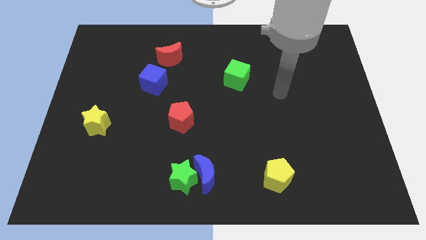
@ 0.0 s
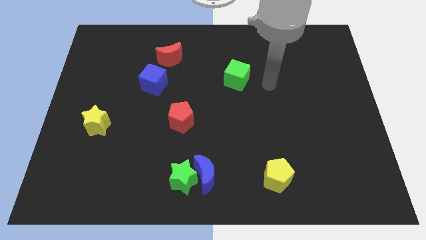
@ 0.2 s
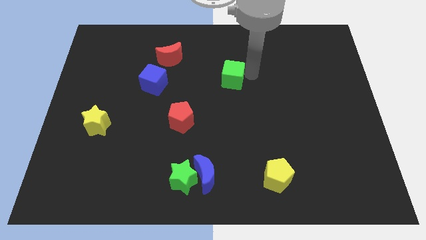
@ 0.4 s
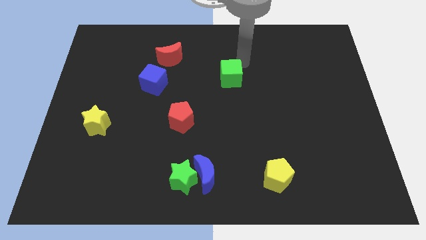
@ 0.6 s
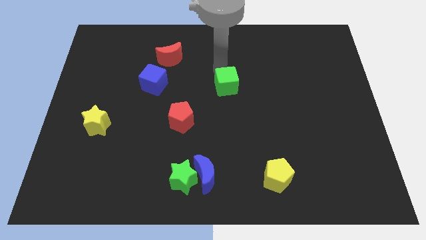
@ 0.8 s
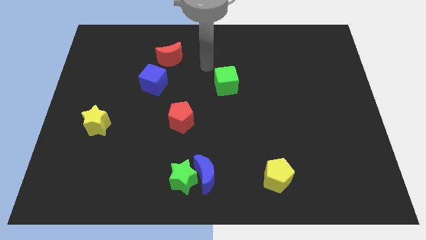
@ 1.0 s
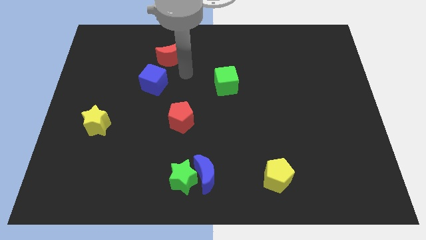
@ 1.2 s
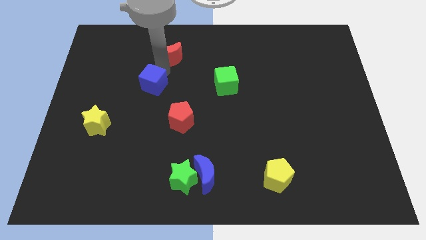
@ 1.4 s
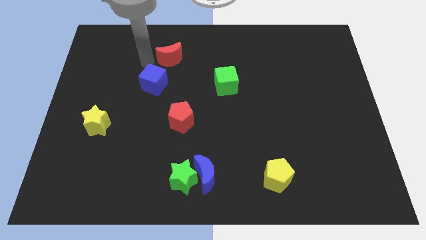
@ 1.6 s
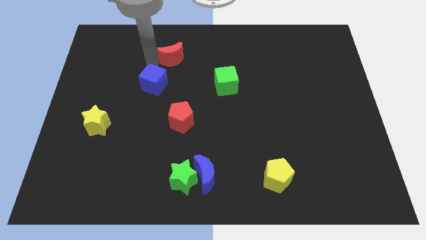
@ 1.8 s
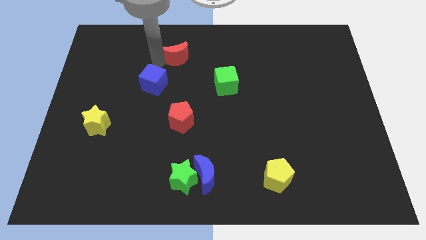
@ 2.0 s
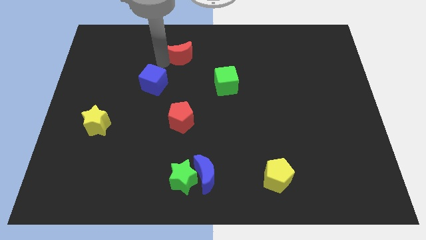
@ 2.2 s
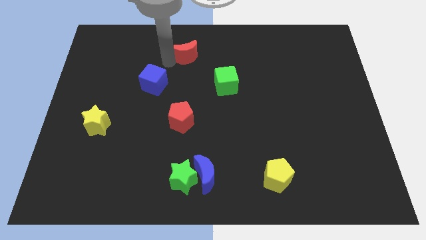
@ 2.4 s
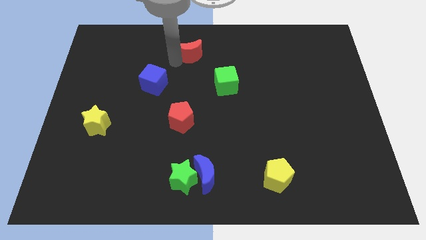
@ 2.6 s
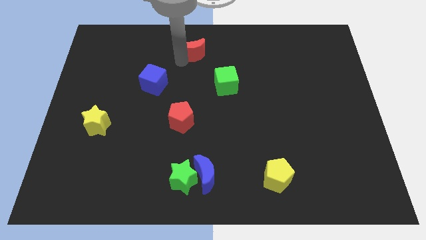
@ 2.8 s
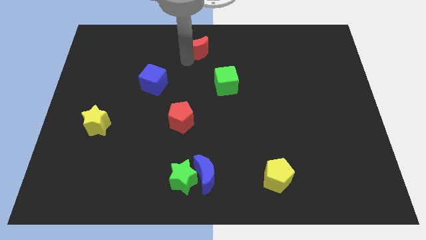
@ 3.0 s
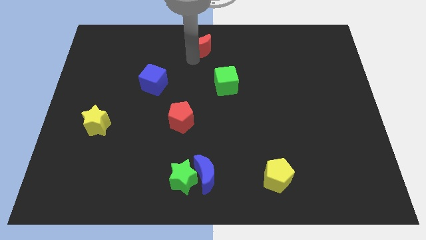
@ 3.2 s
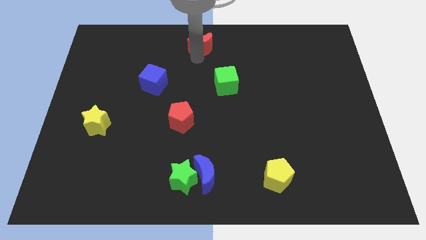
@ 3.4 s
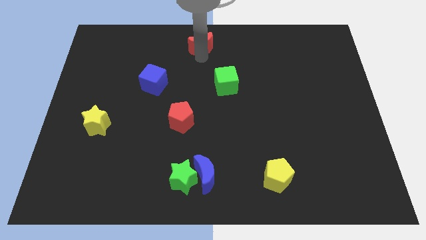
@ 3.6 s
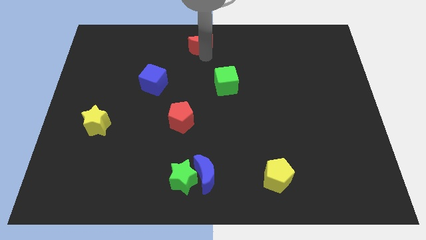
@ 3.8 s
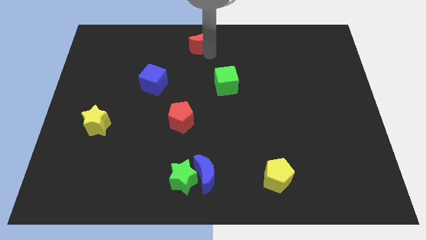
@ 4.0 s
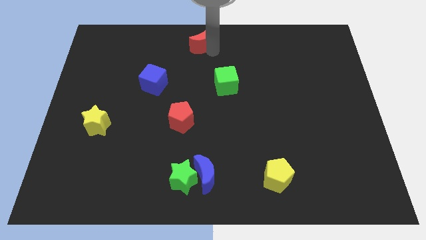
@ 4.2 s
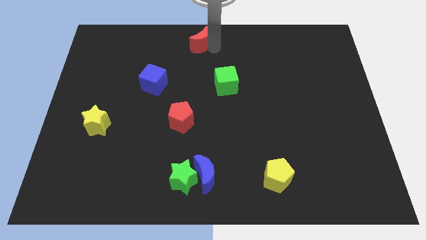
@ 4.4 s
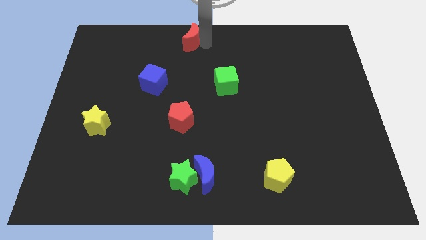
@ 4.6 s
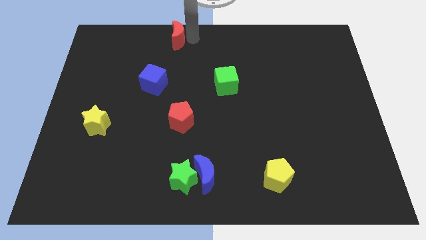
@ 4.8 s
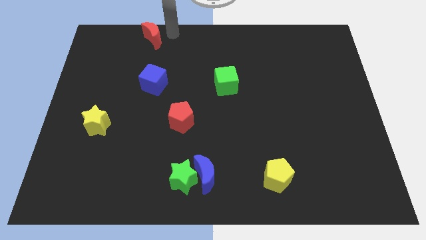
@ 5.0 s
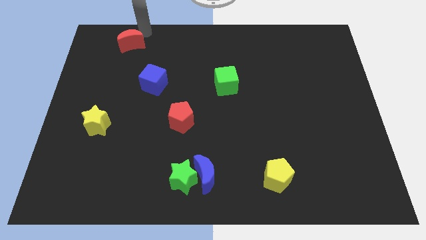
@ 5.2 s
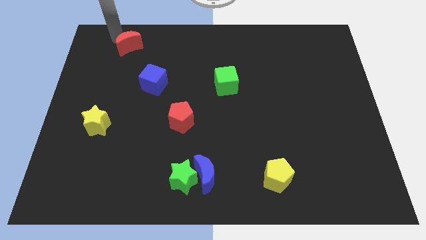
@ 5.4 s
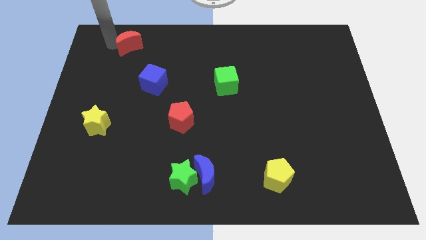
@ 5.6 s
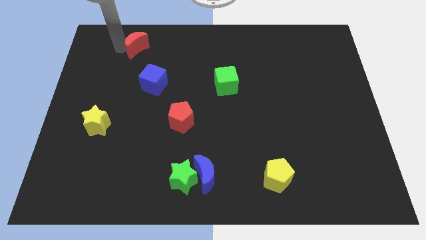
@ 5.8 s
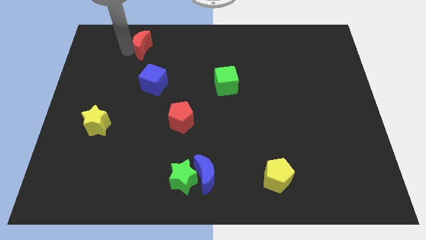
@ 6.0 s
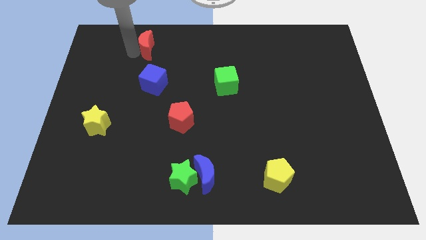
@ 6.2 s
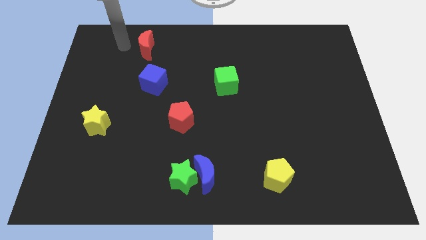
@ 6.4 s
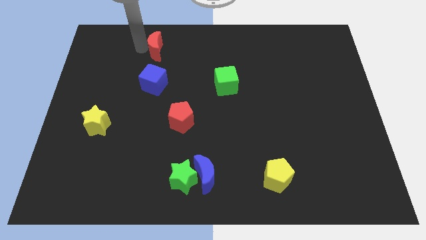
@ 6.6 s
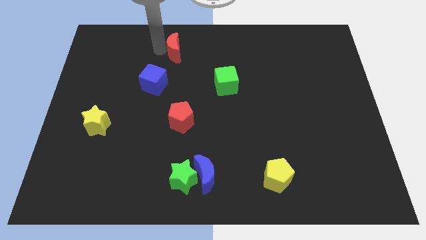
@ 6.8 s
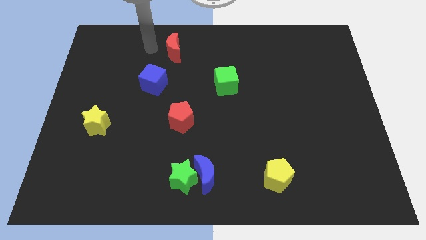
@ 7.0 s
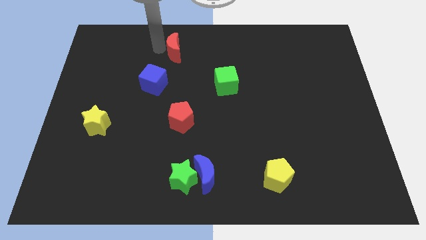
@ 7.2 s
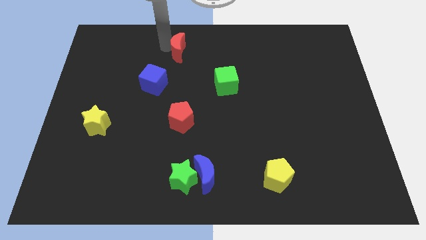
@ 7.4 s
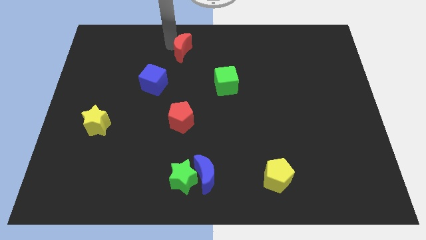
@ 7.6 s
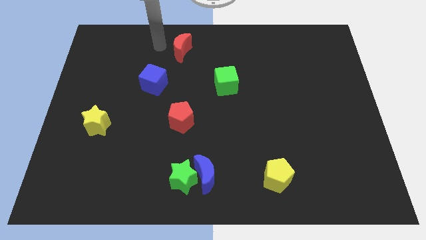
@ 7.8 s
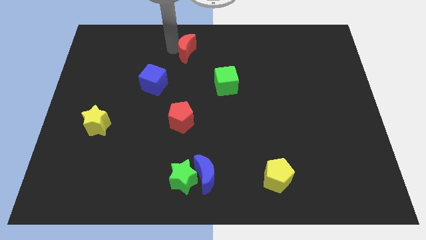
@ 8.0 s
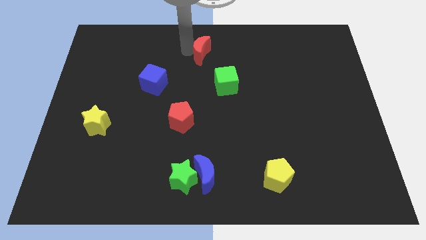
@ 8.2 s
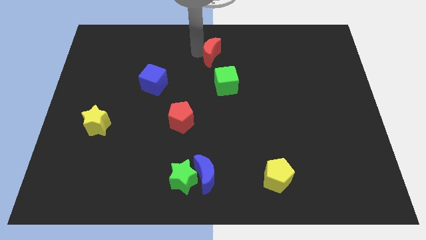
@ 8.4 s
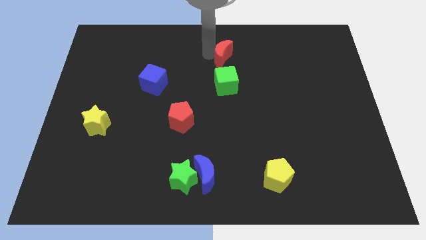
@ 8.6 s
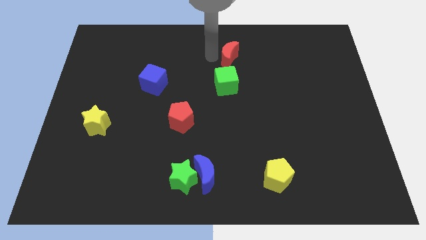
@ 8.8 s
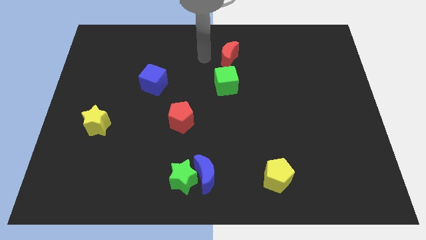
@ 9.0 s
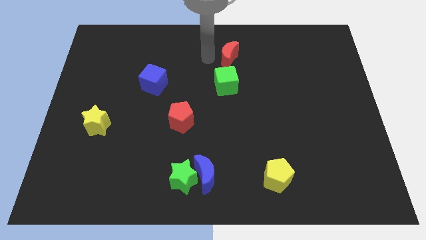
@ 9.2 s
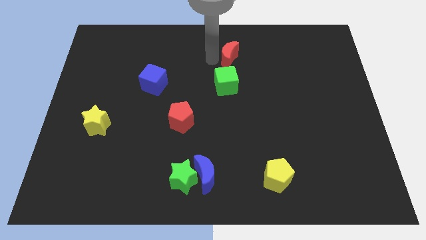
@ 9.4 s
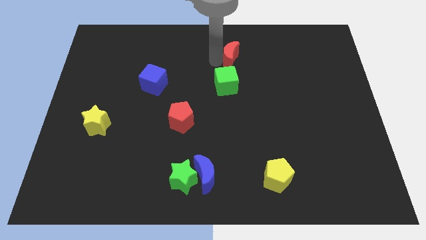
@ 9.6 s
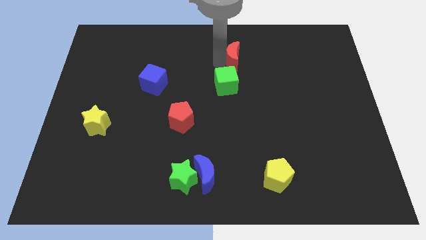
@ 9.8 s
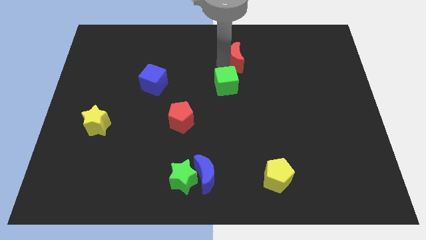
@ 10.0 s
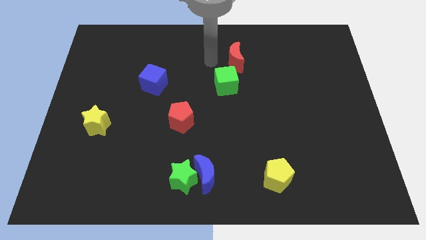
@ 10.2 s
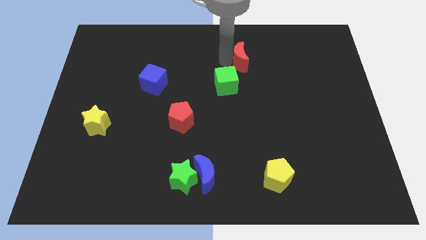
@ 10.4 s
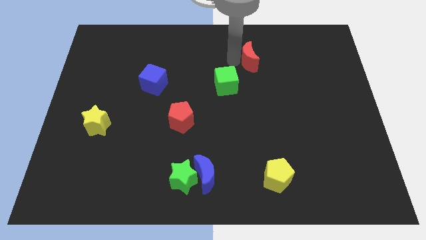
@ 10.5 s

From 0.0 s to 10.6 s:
slide the red moon right

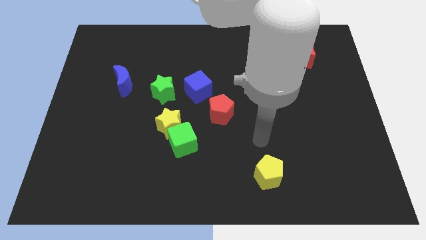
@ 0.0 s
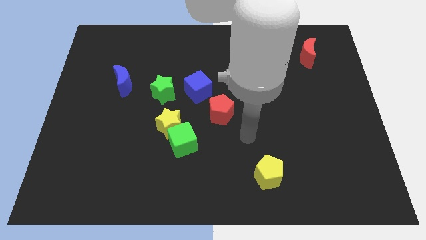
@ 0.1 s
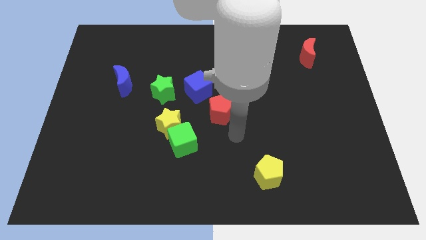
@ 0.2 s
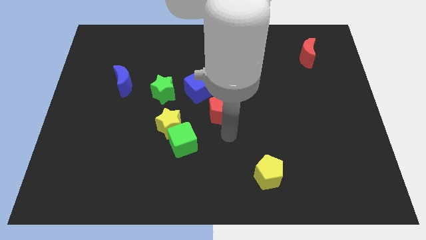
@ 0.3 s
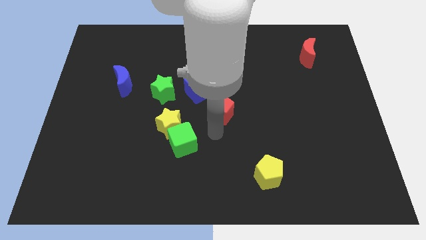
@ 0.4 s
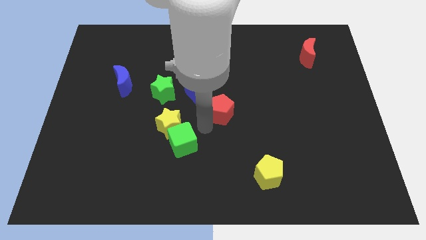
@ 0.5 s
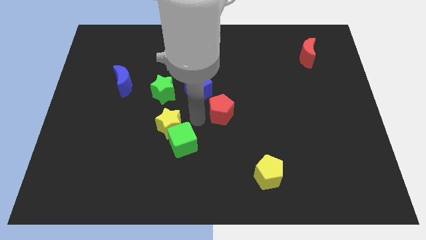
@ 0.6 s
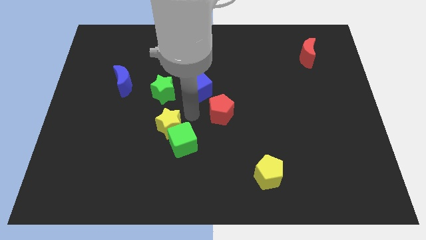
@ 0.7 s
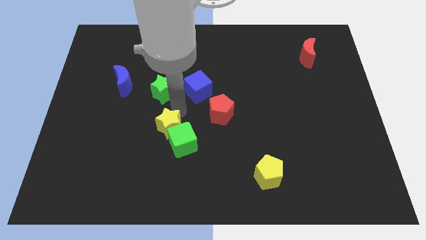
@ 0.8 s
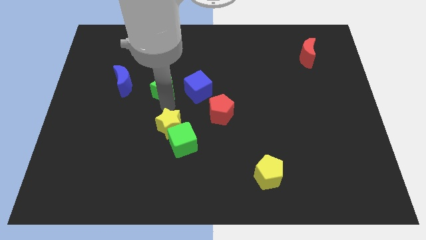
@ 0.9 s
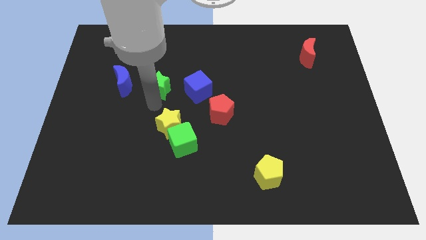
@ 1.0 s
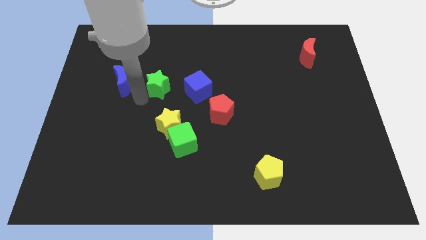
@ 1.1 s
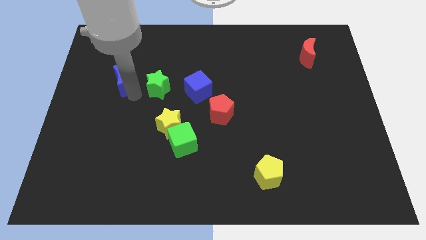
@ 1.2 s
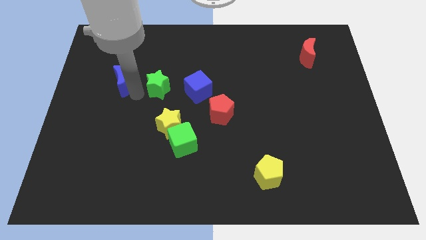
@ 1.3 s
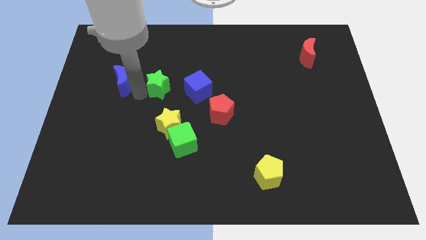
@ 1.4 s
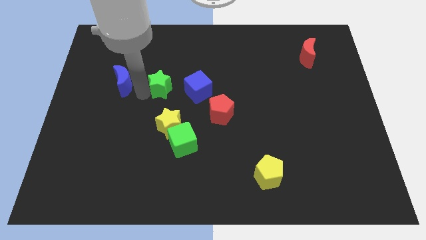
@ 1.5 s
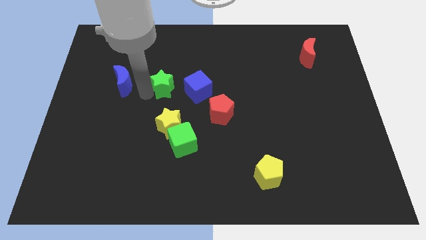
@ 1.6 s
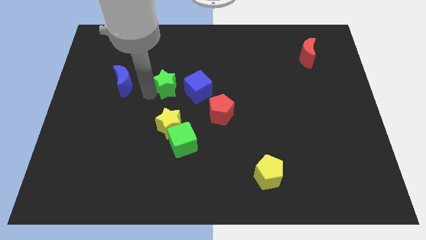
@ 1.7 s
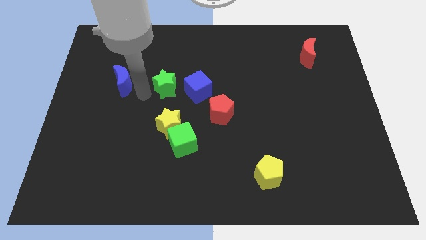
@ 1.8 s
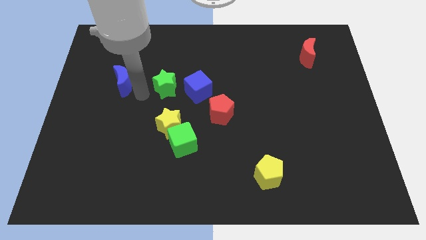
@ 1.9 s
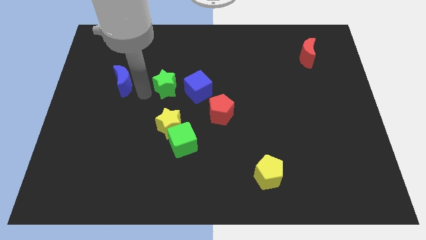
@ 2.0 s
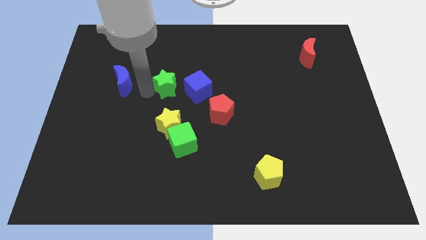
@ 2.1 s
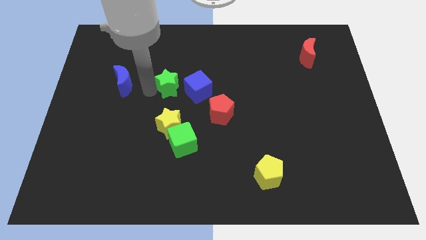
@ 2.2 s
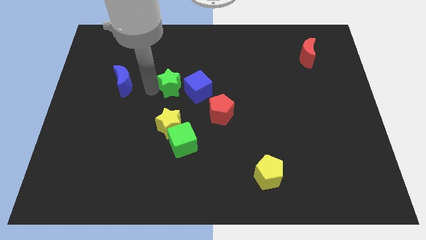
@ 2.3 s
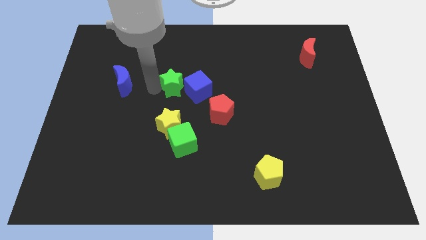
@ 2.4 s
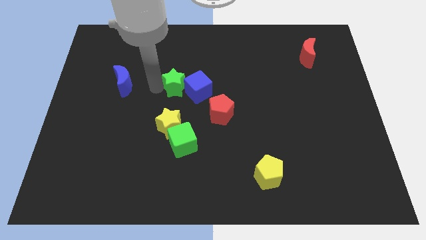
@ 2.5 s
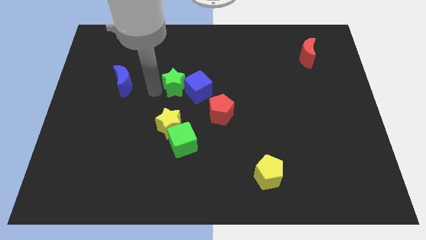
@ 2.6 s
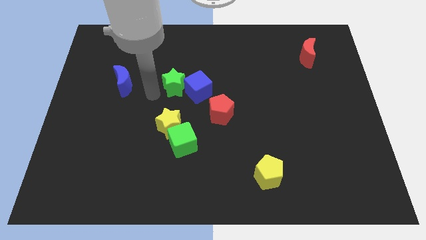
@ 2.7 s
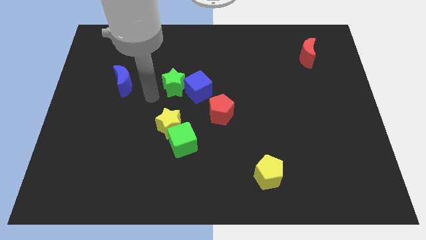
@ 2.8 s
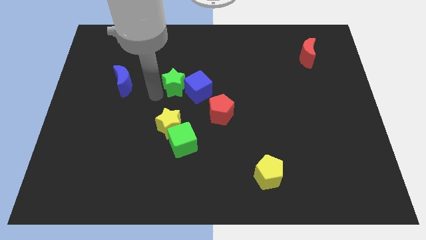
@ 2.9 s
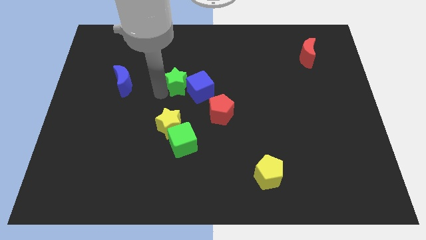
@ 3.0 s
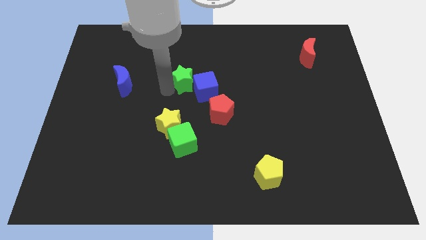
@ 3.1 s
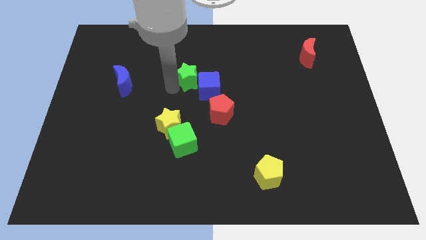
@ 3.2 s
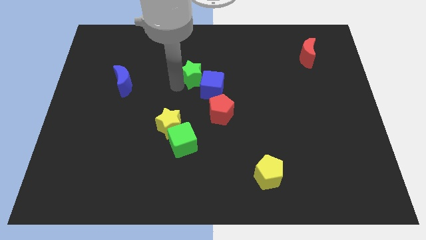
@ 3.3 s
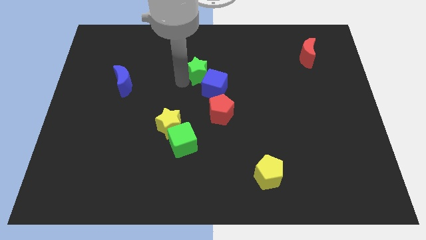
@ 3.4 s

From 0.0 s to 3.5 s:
slightly push the green star right
